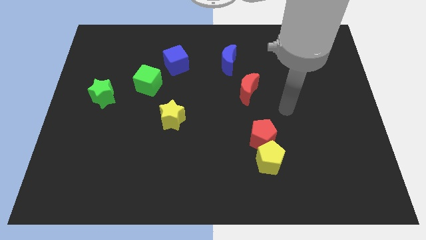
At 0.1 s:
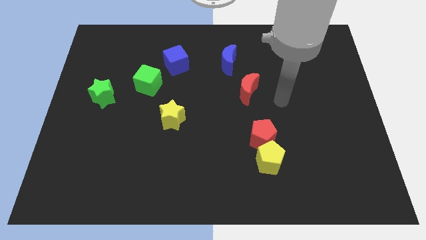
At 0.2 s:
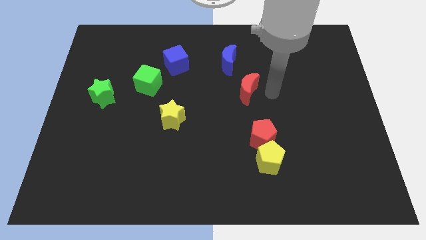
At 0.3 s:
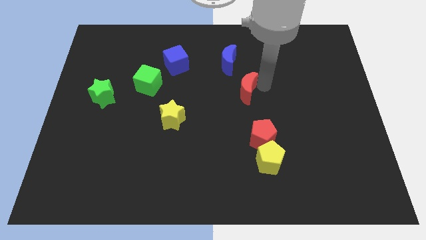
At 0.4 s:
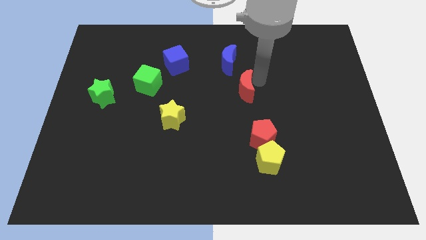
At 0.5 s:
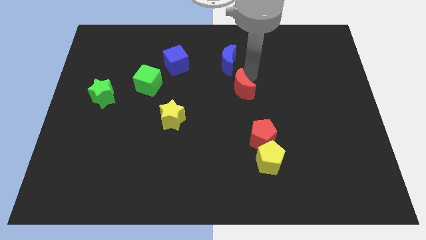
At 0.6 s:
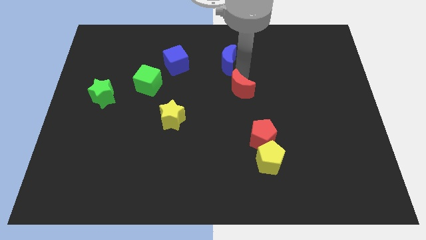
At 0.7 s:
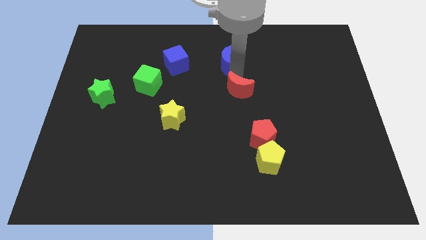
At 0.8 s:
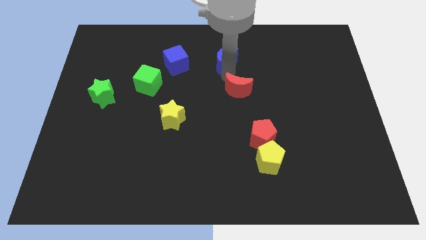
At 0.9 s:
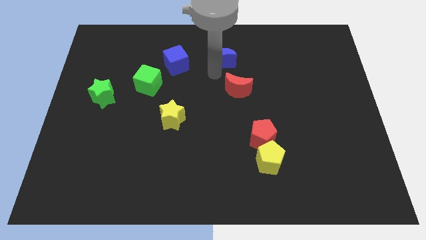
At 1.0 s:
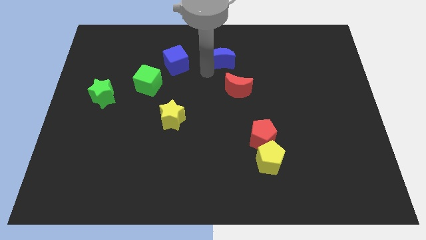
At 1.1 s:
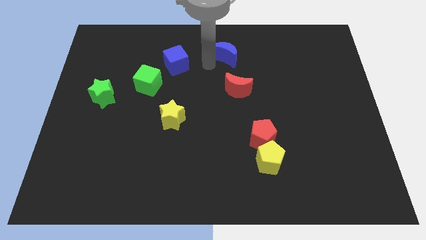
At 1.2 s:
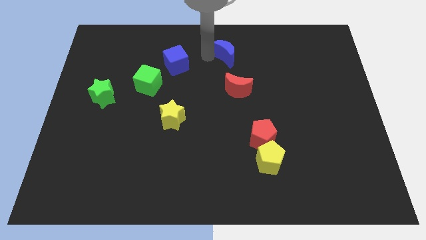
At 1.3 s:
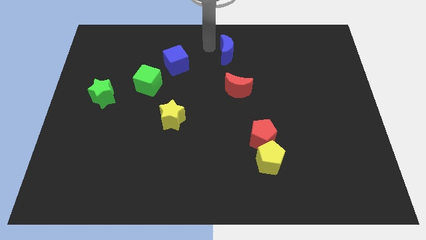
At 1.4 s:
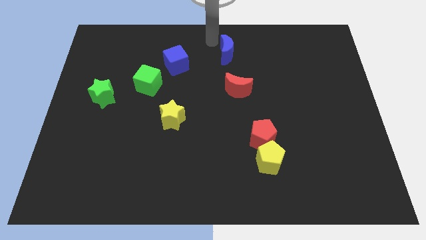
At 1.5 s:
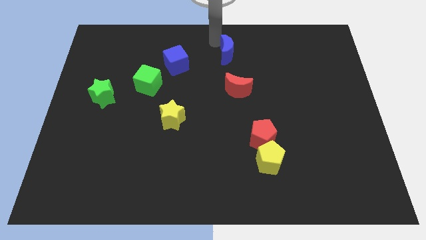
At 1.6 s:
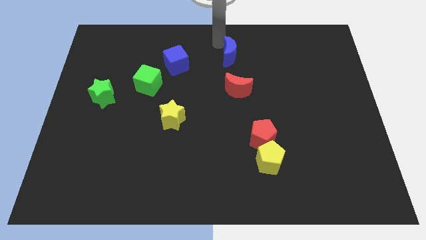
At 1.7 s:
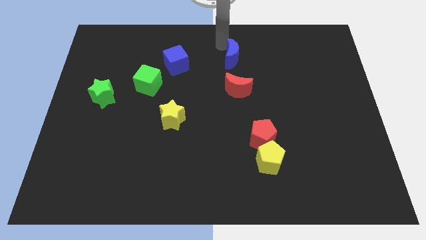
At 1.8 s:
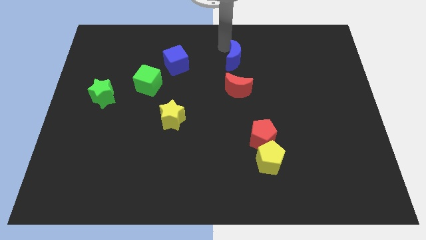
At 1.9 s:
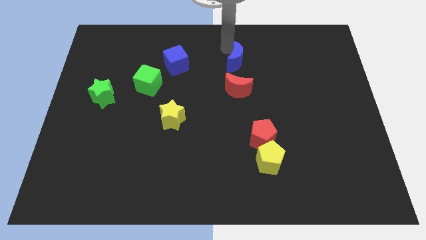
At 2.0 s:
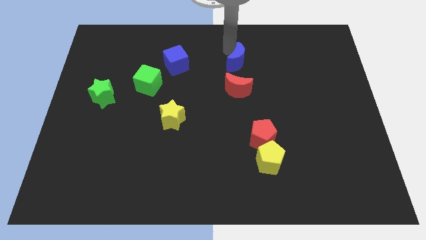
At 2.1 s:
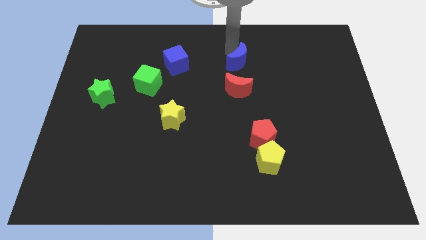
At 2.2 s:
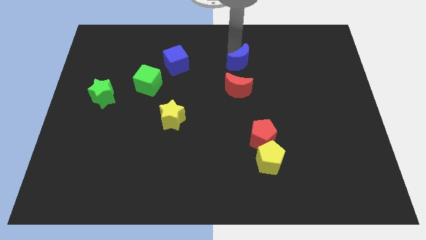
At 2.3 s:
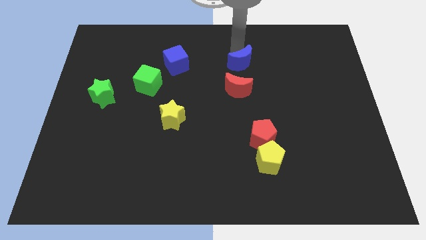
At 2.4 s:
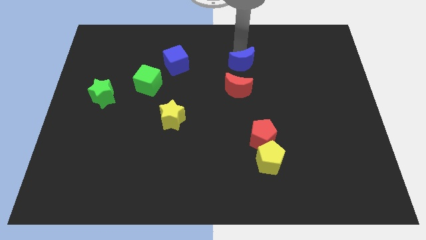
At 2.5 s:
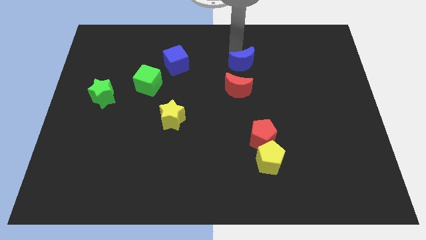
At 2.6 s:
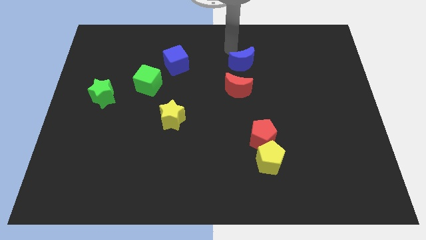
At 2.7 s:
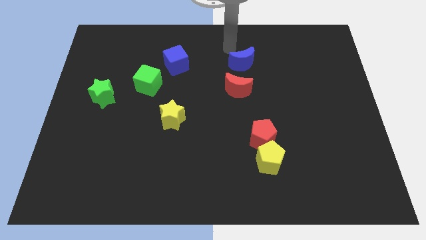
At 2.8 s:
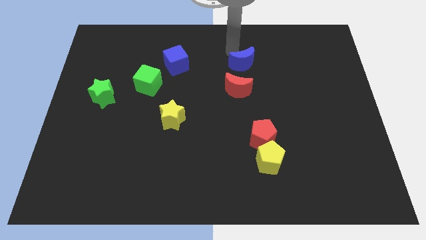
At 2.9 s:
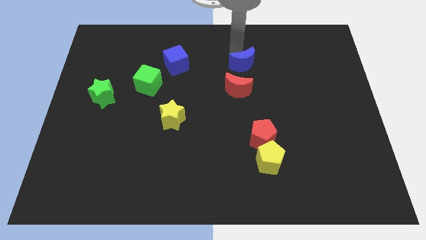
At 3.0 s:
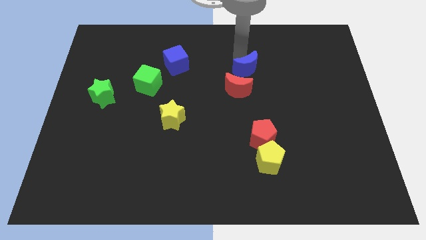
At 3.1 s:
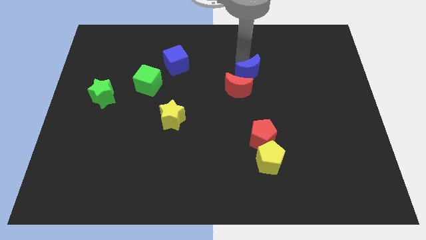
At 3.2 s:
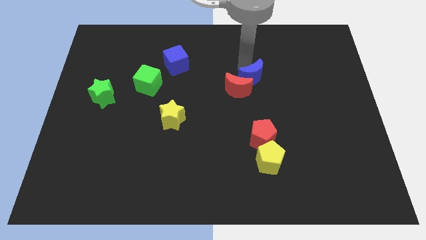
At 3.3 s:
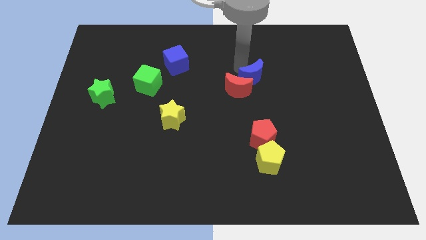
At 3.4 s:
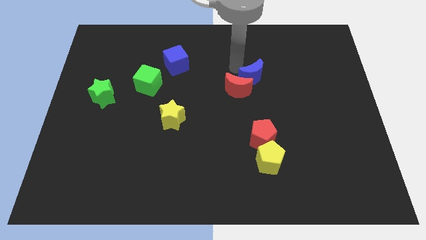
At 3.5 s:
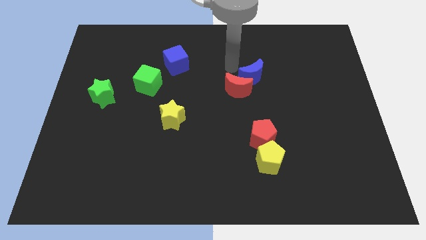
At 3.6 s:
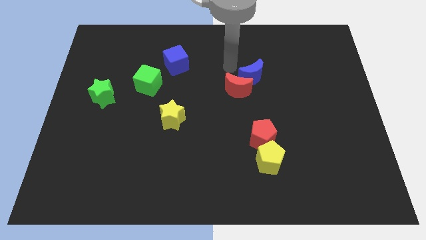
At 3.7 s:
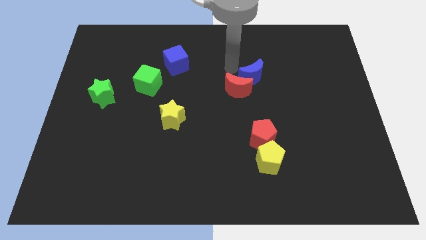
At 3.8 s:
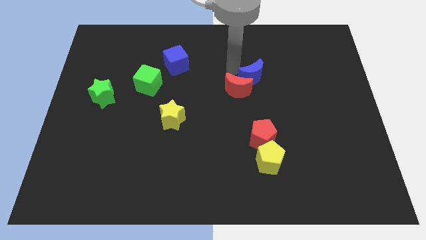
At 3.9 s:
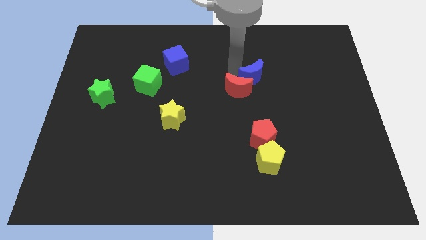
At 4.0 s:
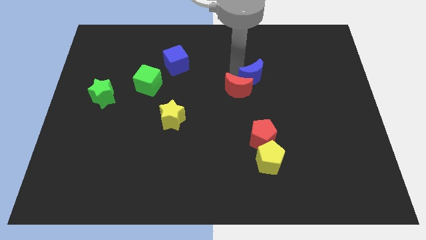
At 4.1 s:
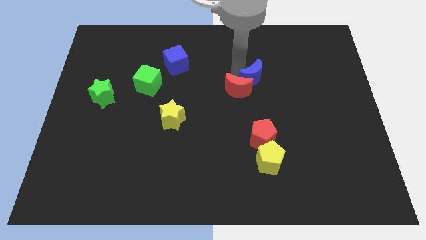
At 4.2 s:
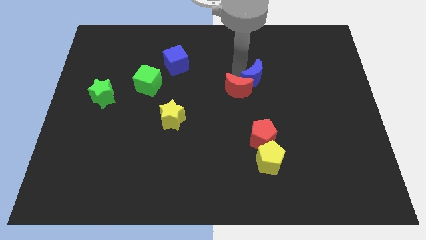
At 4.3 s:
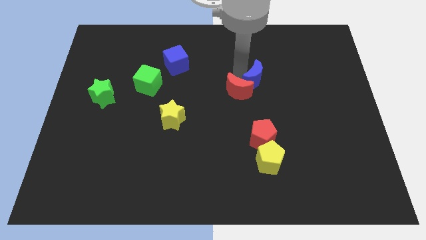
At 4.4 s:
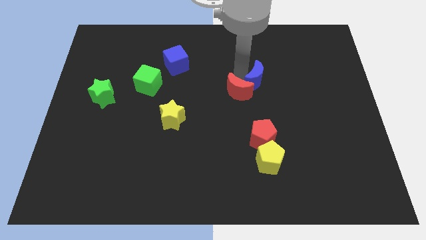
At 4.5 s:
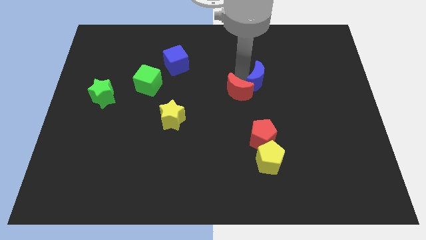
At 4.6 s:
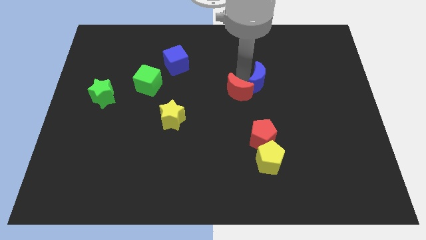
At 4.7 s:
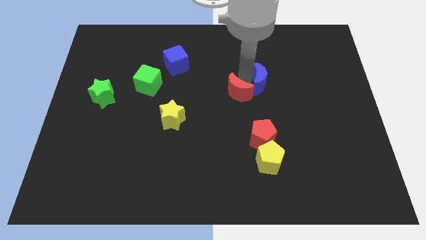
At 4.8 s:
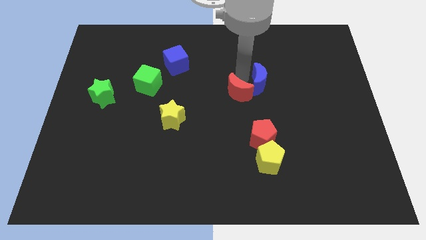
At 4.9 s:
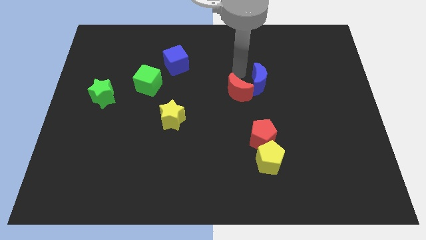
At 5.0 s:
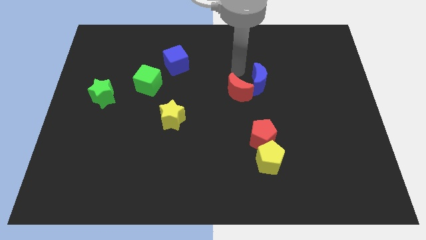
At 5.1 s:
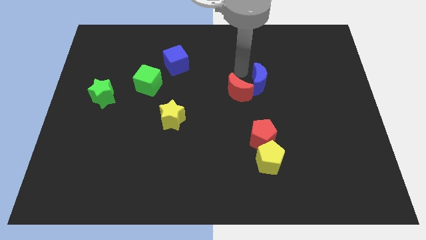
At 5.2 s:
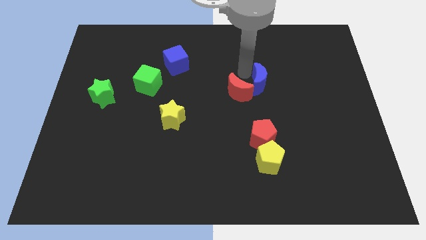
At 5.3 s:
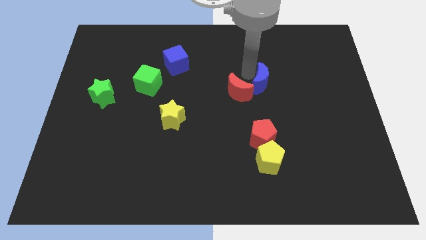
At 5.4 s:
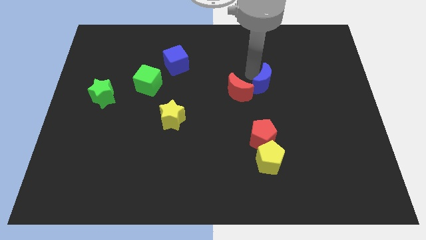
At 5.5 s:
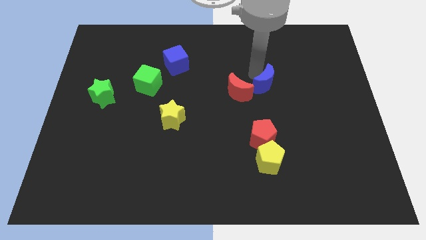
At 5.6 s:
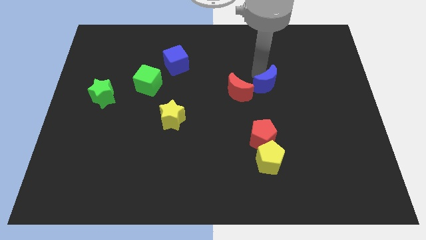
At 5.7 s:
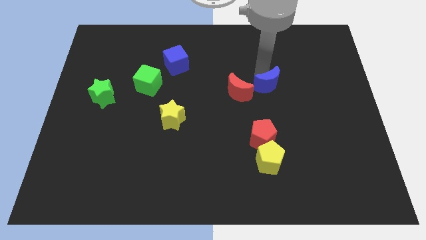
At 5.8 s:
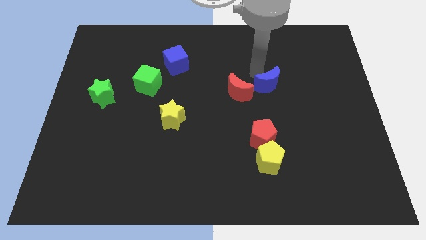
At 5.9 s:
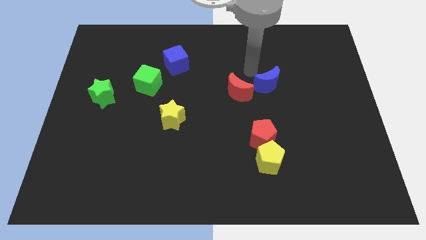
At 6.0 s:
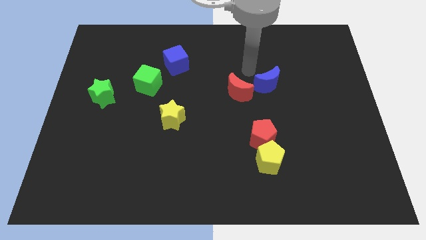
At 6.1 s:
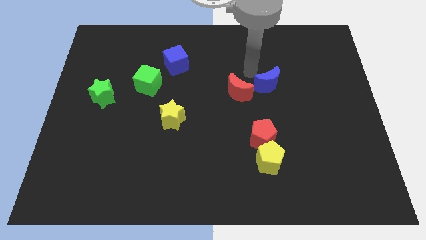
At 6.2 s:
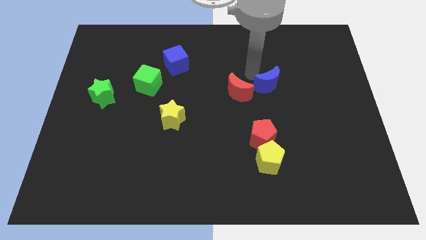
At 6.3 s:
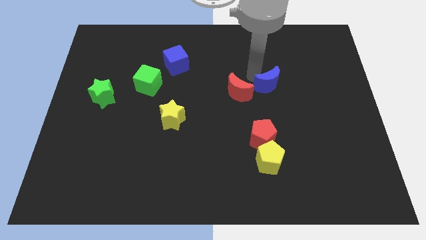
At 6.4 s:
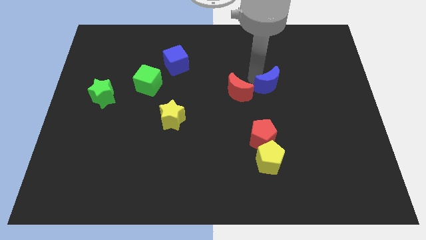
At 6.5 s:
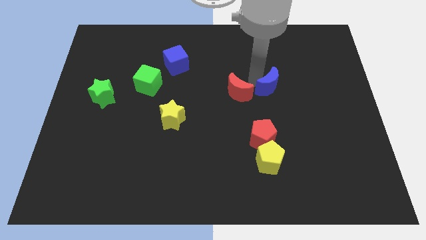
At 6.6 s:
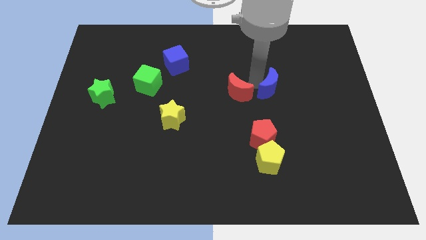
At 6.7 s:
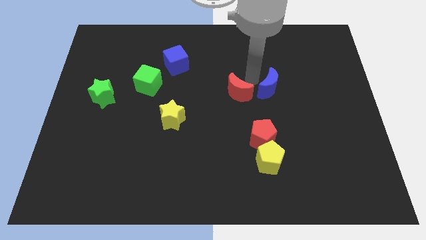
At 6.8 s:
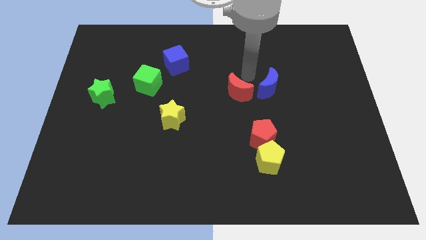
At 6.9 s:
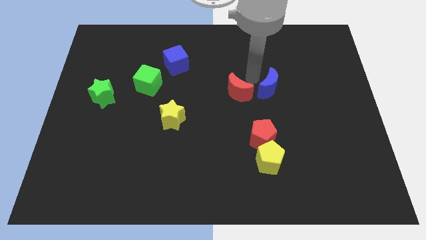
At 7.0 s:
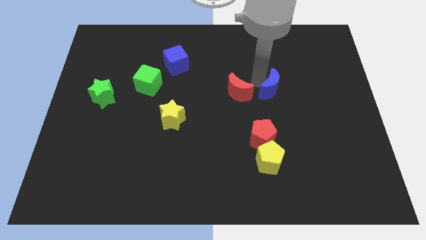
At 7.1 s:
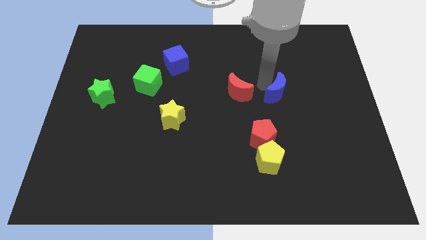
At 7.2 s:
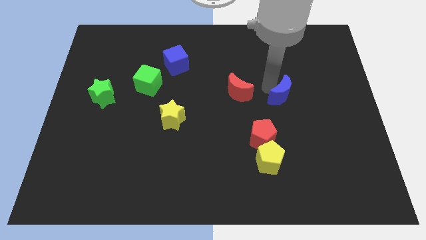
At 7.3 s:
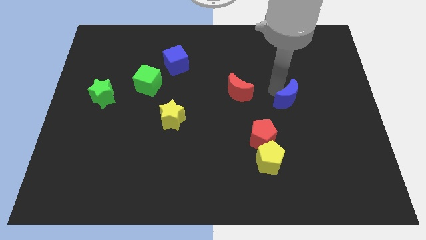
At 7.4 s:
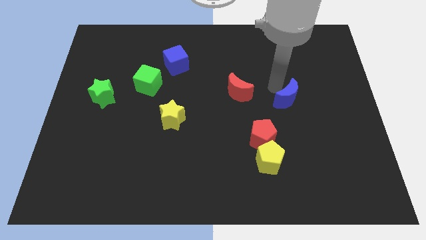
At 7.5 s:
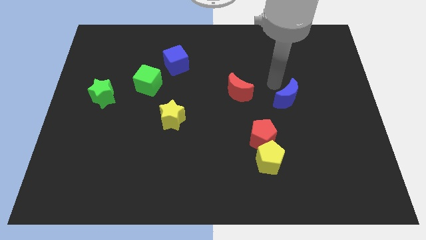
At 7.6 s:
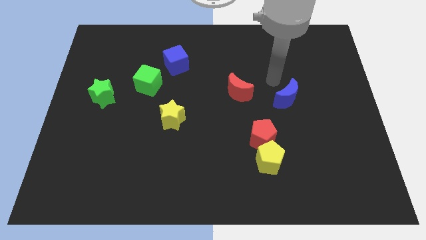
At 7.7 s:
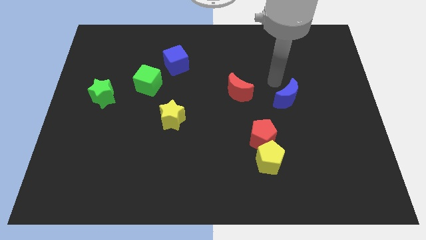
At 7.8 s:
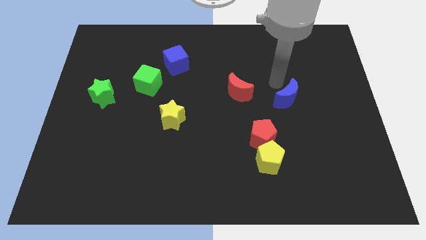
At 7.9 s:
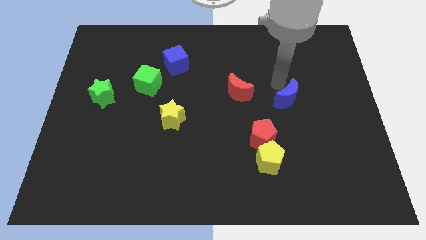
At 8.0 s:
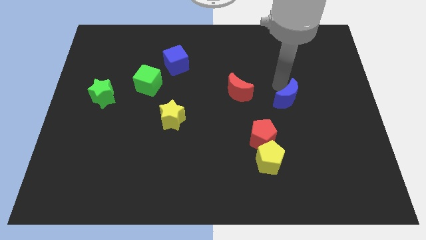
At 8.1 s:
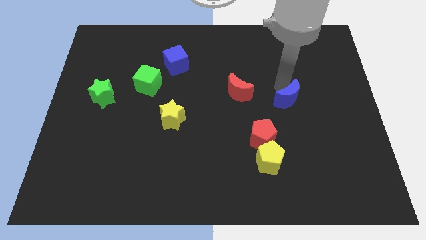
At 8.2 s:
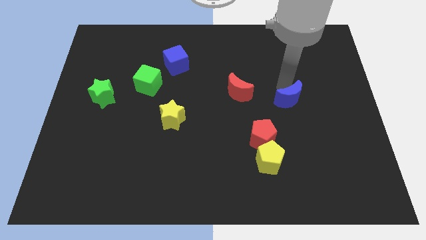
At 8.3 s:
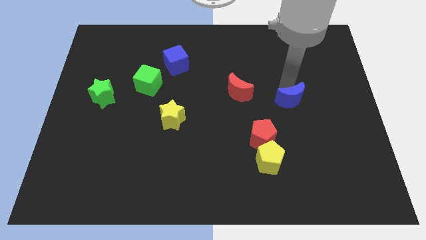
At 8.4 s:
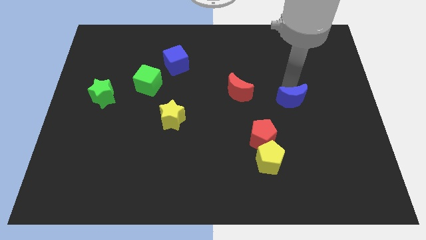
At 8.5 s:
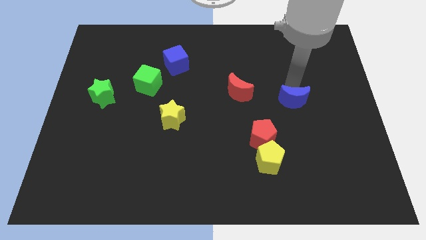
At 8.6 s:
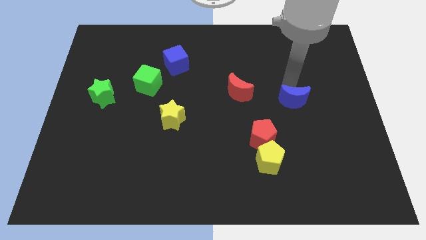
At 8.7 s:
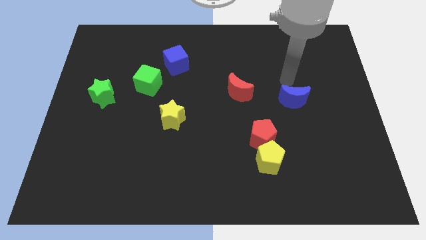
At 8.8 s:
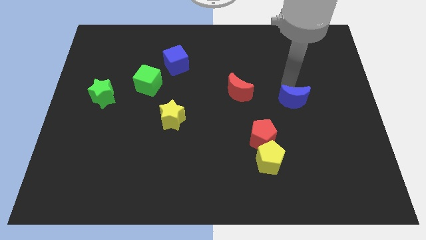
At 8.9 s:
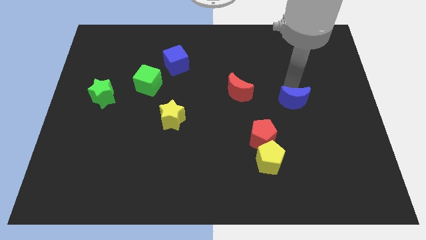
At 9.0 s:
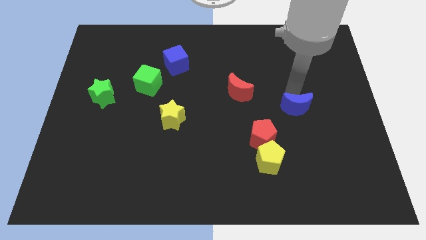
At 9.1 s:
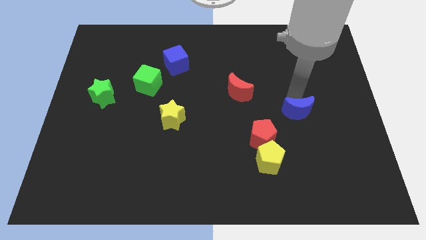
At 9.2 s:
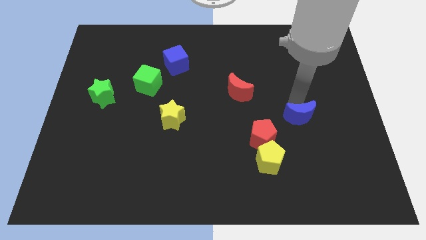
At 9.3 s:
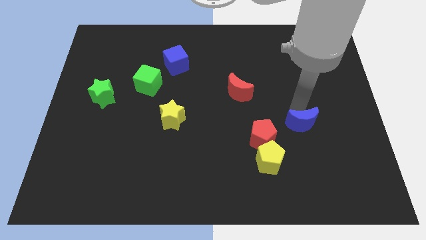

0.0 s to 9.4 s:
push the blue moon right of the red pentagon
